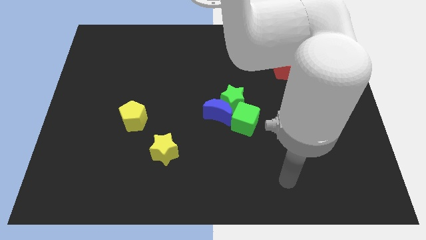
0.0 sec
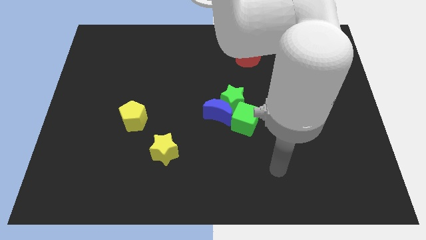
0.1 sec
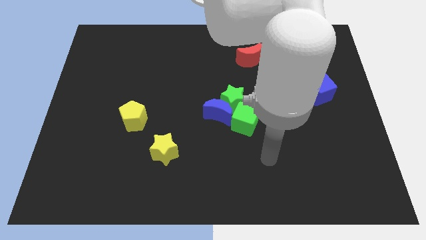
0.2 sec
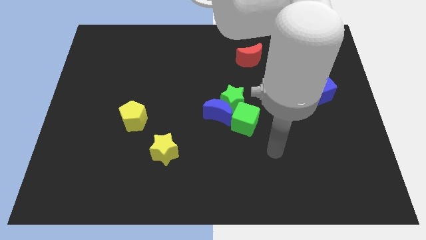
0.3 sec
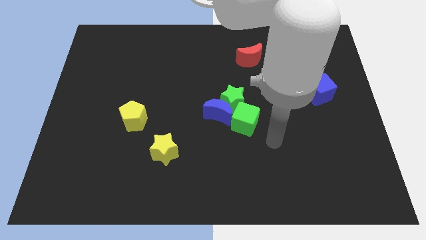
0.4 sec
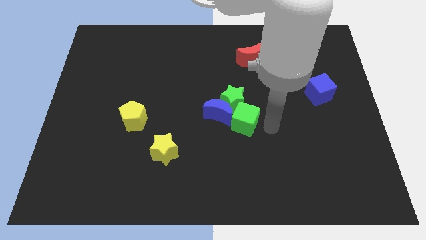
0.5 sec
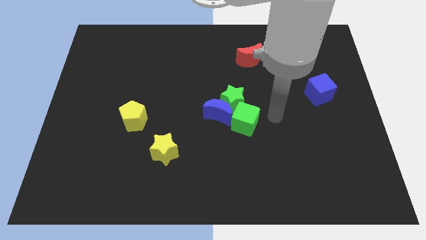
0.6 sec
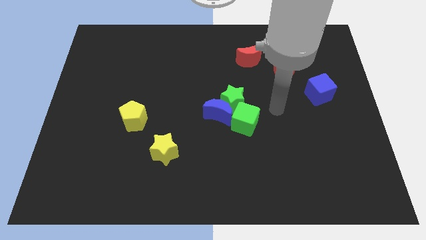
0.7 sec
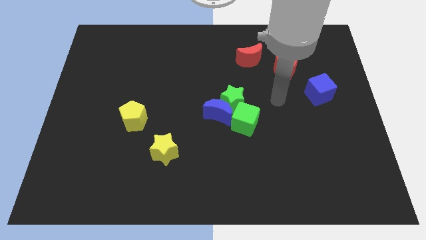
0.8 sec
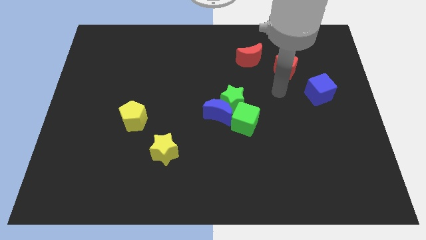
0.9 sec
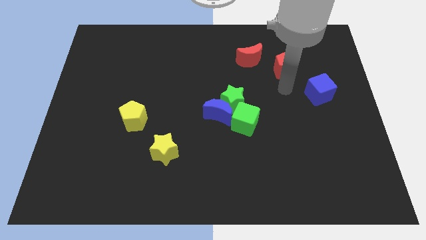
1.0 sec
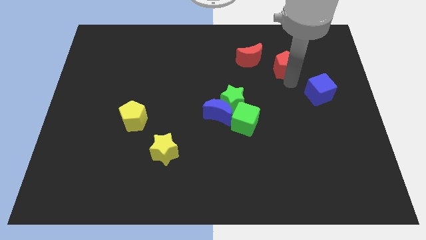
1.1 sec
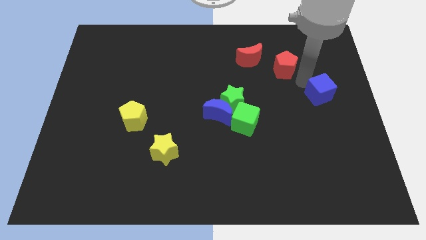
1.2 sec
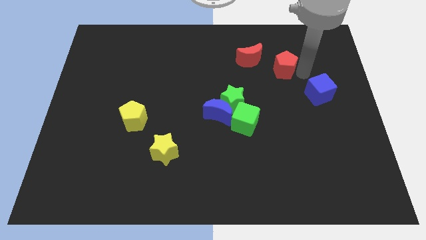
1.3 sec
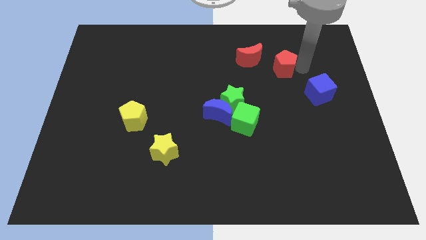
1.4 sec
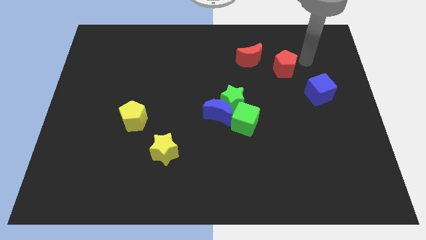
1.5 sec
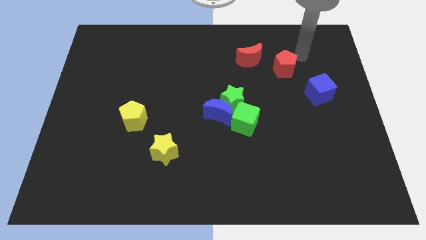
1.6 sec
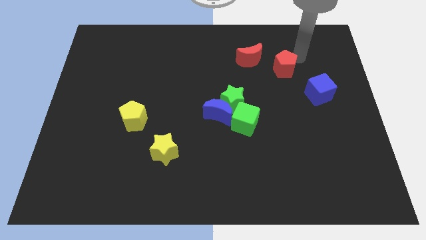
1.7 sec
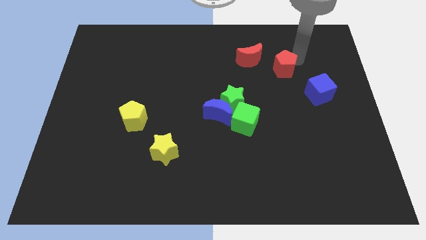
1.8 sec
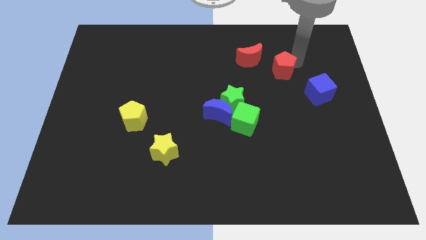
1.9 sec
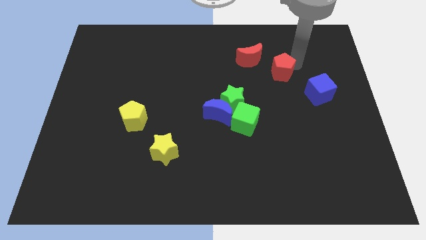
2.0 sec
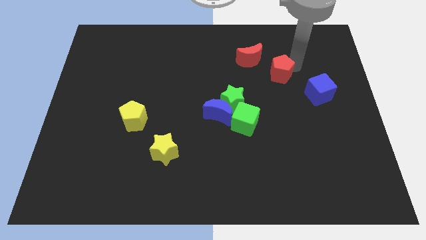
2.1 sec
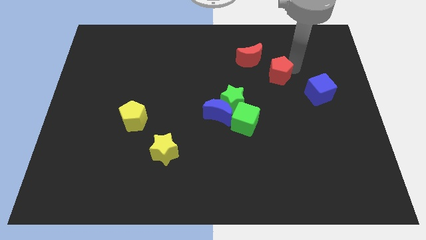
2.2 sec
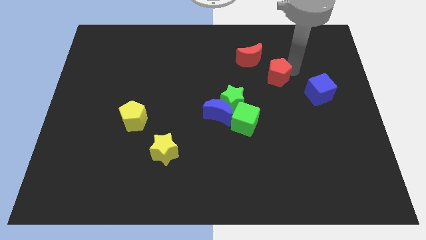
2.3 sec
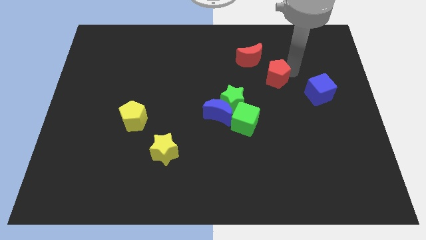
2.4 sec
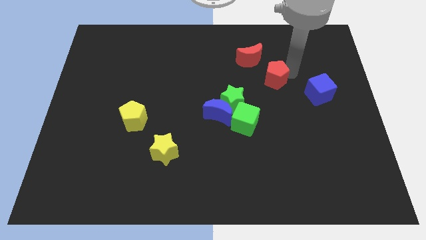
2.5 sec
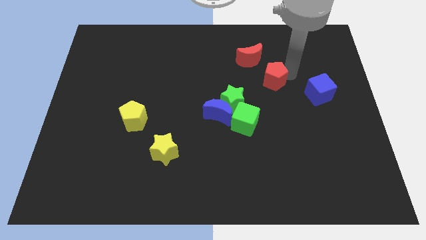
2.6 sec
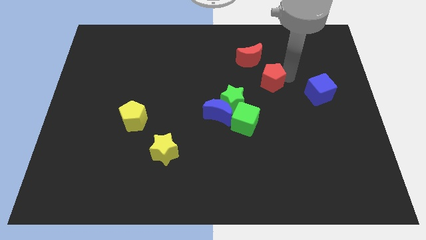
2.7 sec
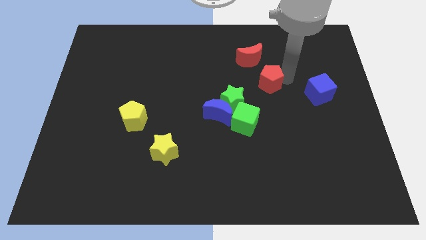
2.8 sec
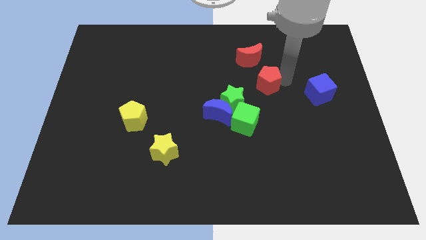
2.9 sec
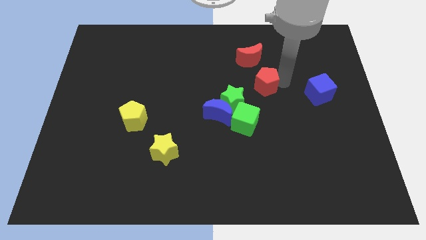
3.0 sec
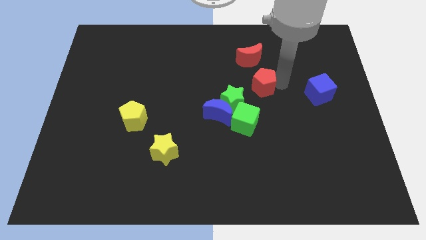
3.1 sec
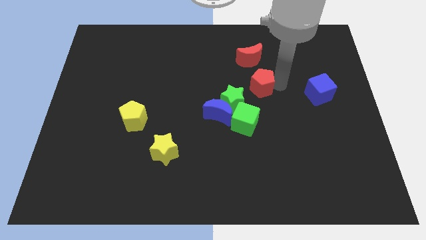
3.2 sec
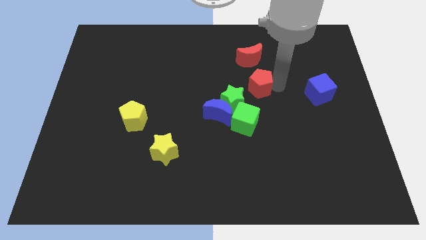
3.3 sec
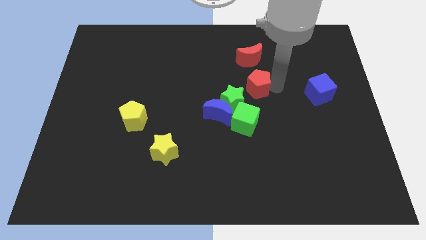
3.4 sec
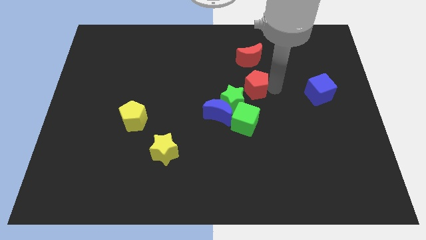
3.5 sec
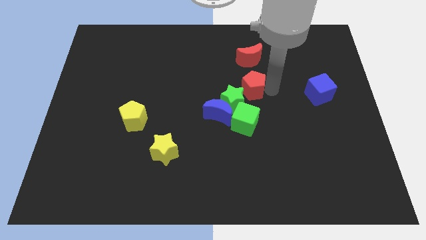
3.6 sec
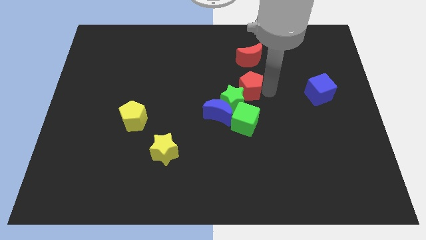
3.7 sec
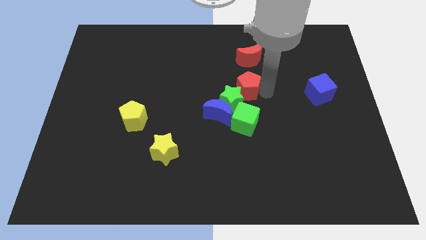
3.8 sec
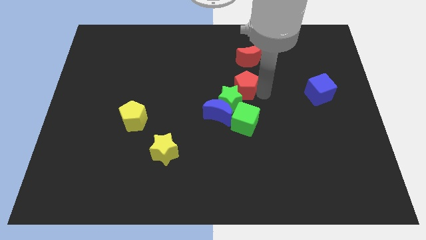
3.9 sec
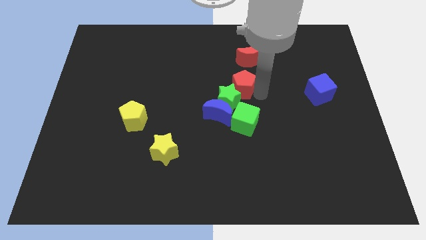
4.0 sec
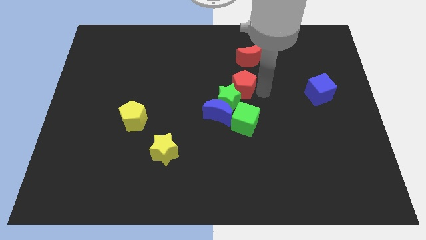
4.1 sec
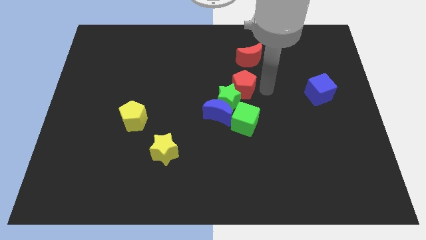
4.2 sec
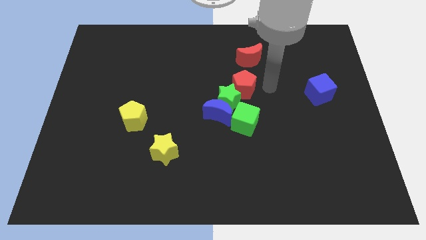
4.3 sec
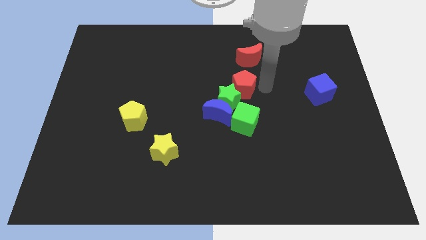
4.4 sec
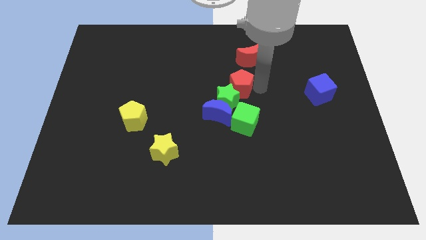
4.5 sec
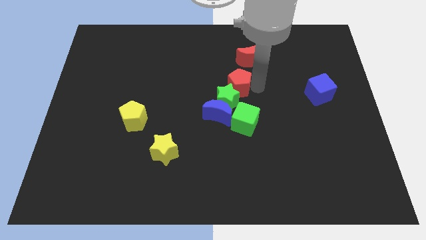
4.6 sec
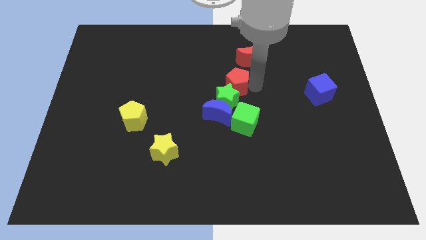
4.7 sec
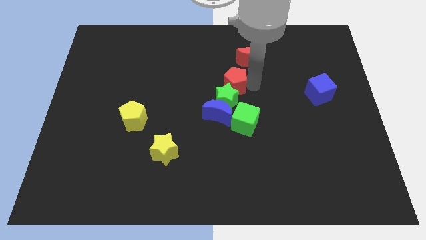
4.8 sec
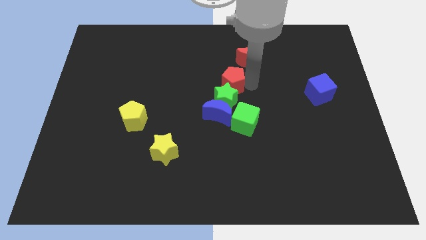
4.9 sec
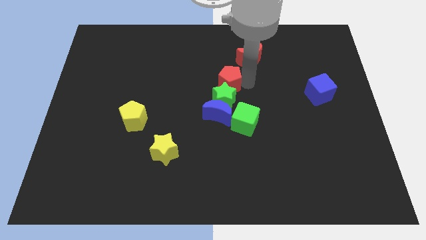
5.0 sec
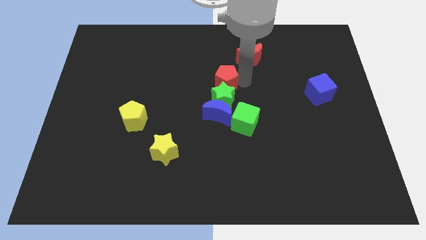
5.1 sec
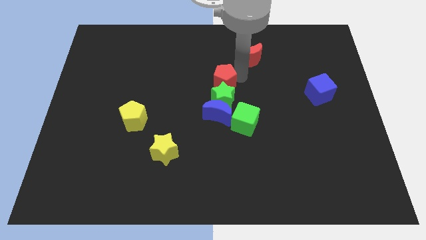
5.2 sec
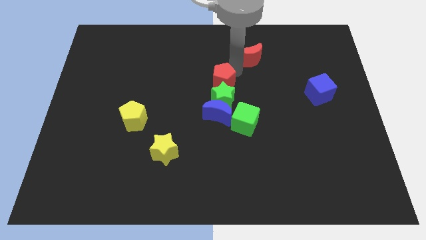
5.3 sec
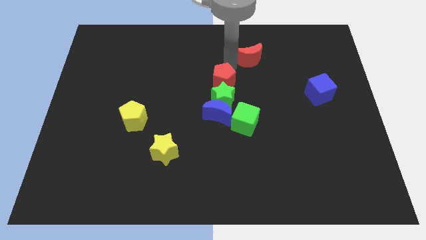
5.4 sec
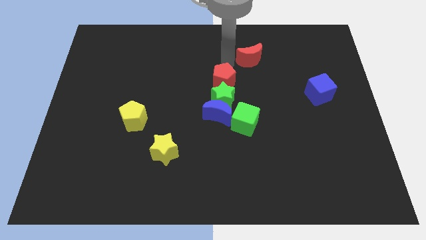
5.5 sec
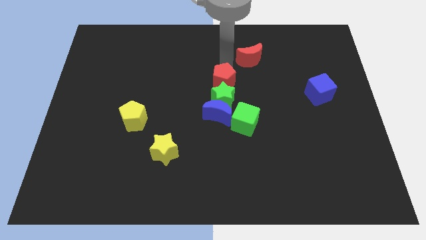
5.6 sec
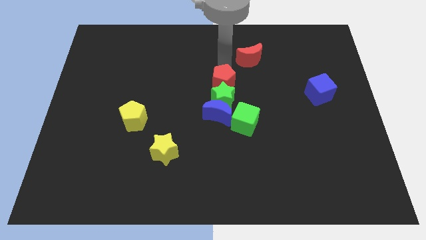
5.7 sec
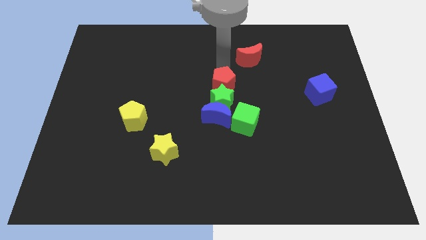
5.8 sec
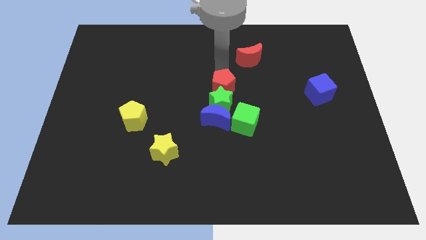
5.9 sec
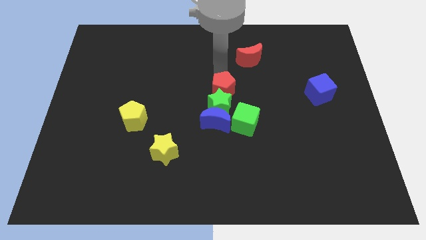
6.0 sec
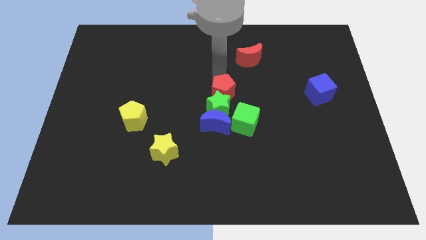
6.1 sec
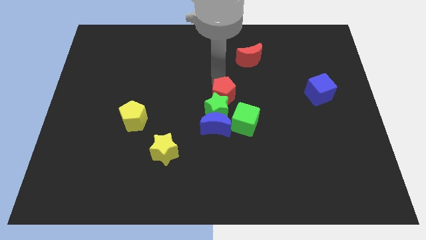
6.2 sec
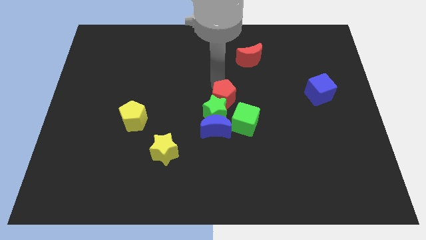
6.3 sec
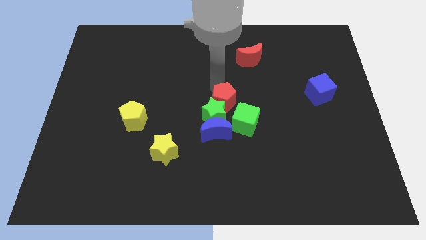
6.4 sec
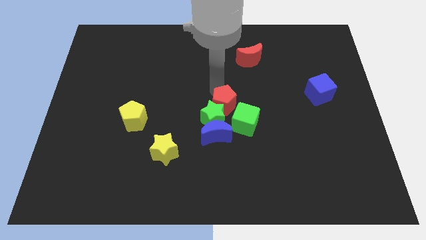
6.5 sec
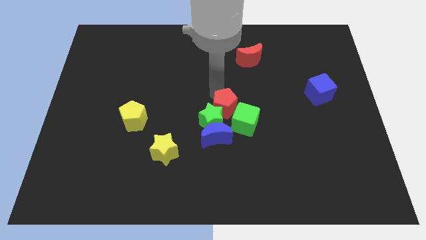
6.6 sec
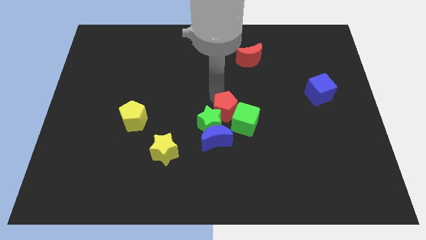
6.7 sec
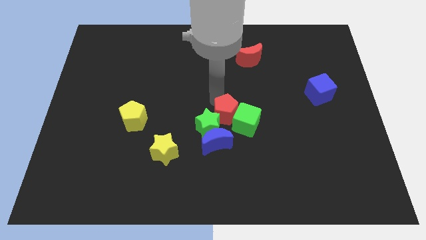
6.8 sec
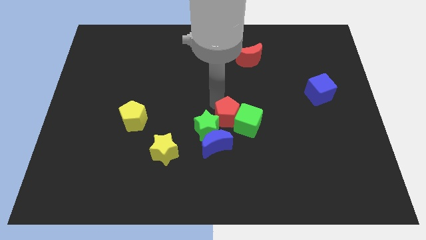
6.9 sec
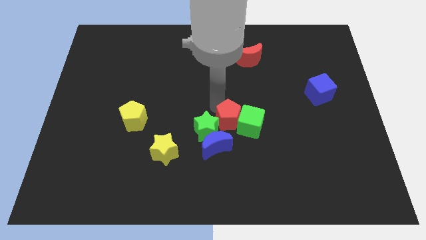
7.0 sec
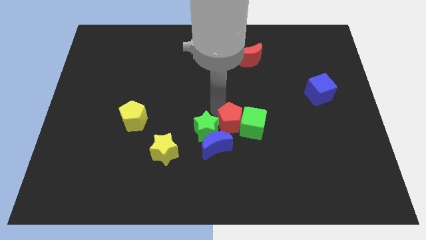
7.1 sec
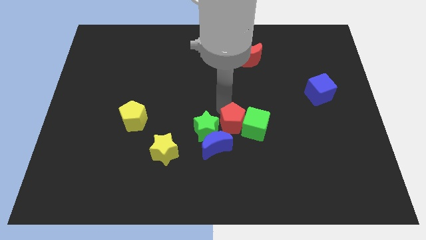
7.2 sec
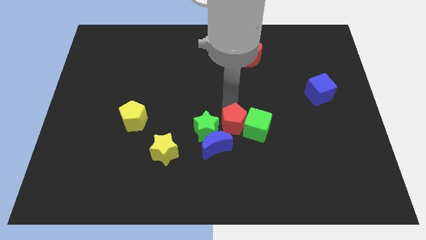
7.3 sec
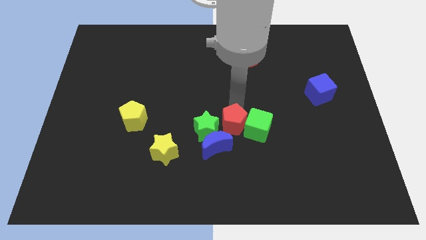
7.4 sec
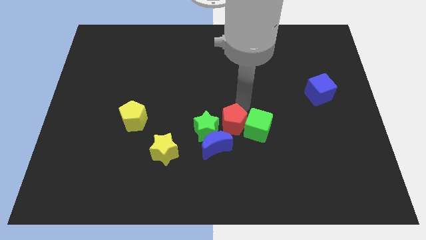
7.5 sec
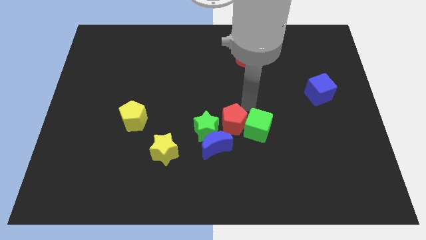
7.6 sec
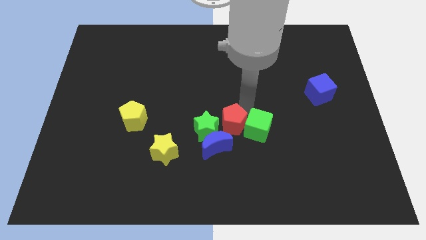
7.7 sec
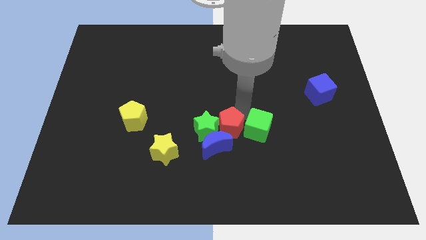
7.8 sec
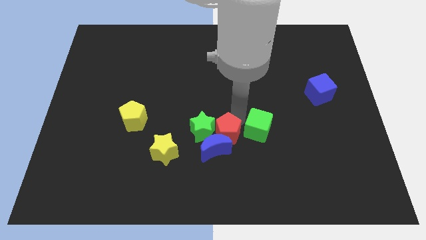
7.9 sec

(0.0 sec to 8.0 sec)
put the red pentagon next to the blue moon
